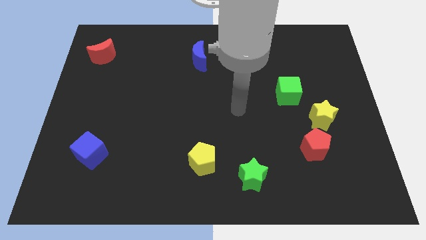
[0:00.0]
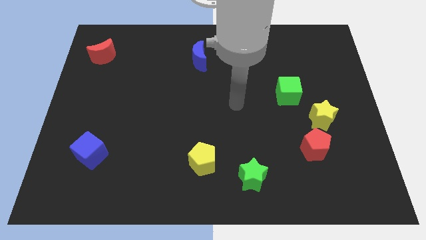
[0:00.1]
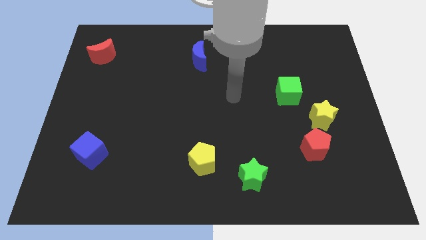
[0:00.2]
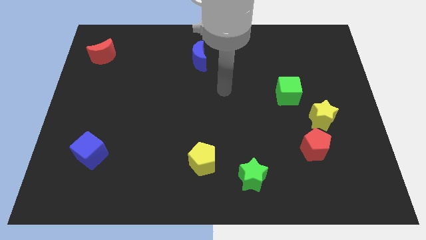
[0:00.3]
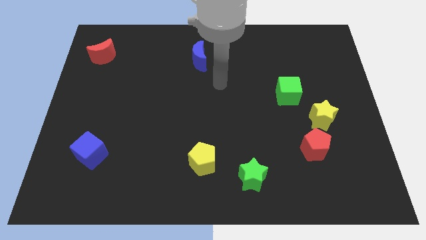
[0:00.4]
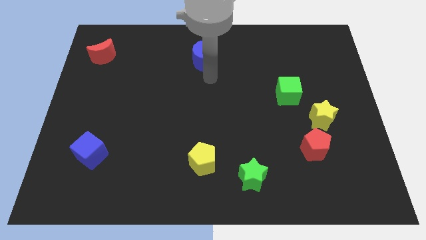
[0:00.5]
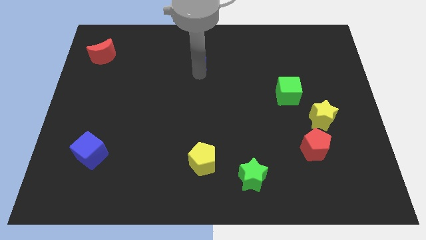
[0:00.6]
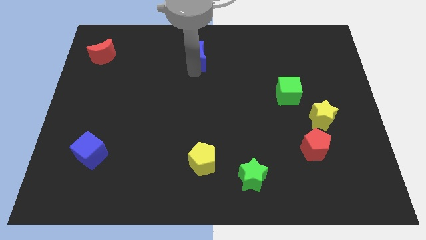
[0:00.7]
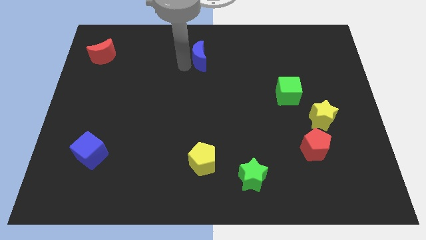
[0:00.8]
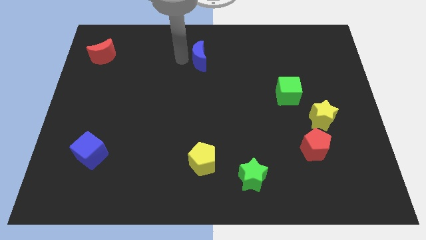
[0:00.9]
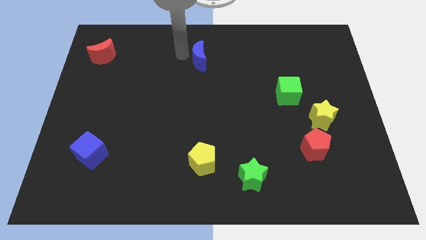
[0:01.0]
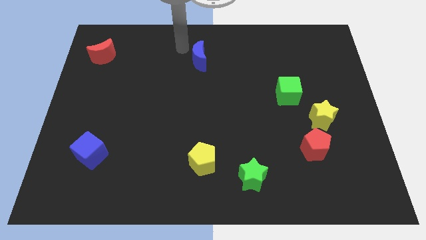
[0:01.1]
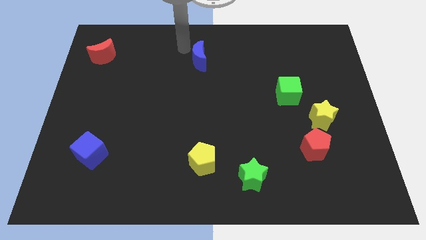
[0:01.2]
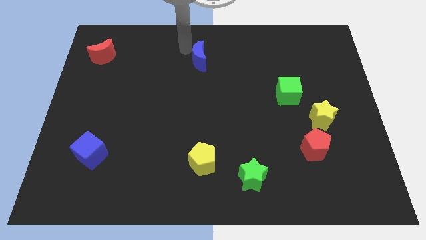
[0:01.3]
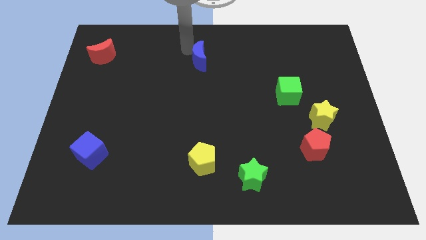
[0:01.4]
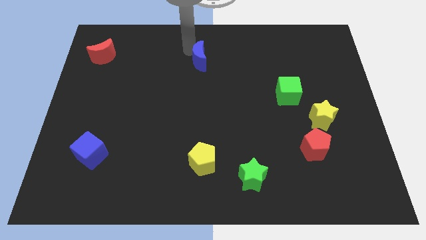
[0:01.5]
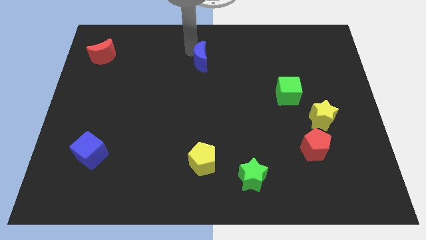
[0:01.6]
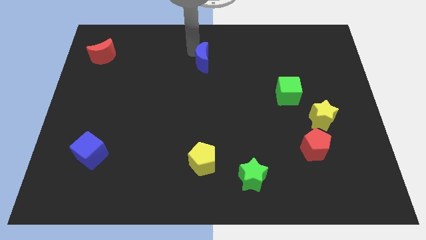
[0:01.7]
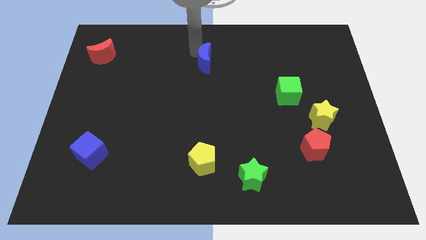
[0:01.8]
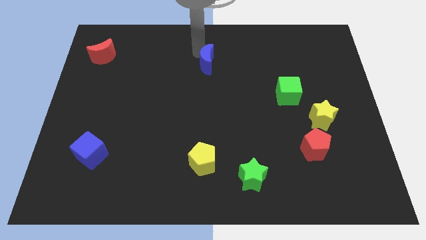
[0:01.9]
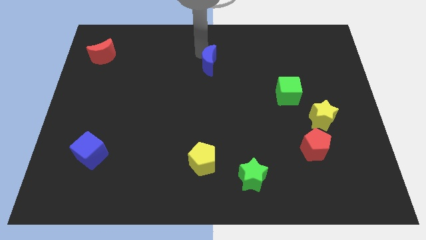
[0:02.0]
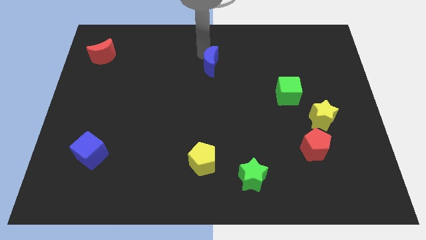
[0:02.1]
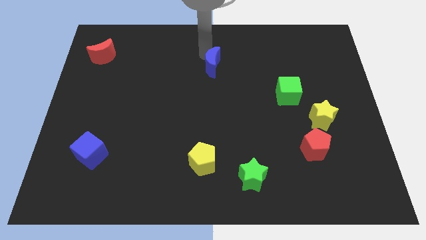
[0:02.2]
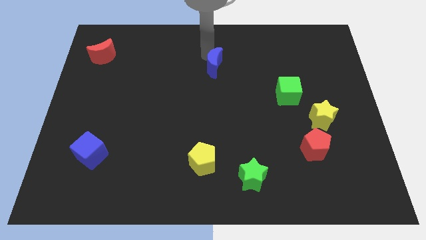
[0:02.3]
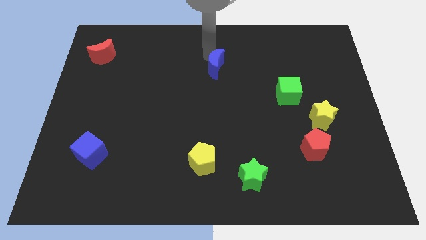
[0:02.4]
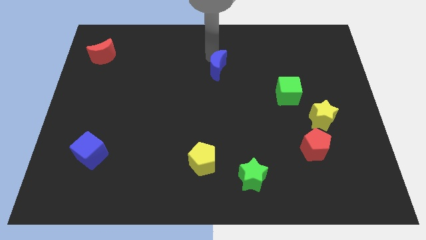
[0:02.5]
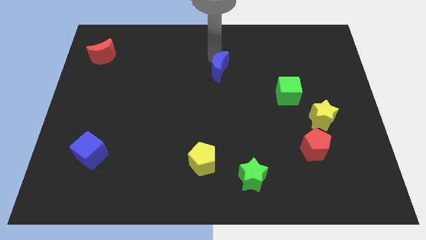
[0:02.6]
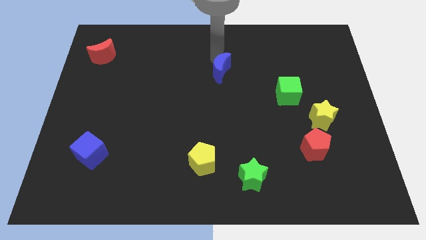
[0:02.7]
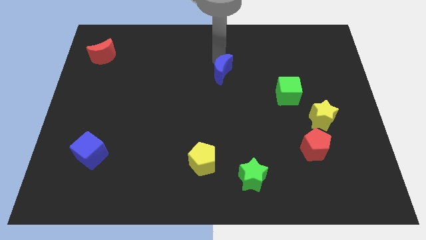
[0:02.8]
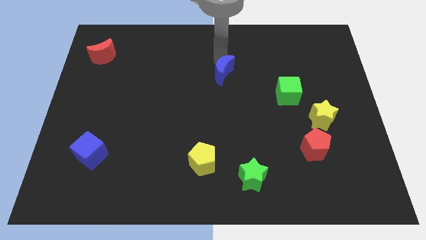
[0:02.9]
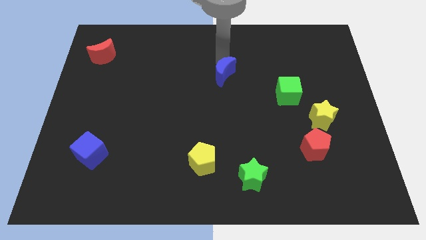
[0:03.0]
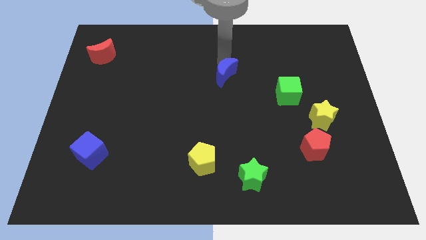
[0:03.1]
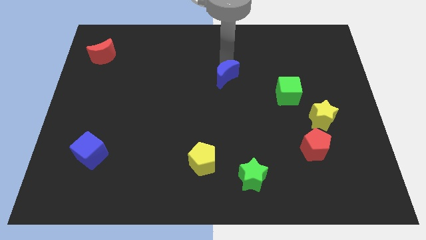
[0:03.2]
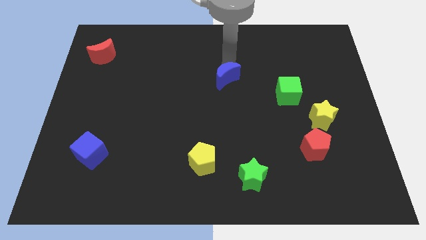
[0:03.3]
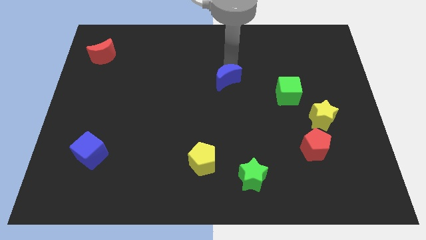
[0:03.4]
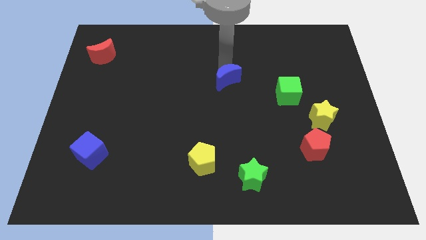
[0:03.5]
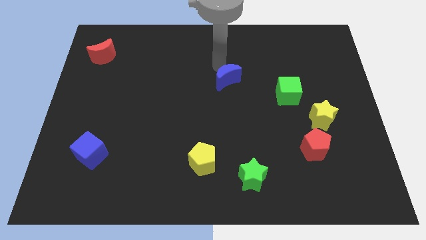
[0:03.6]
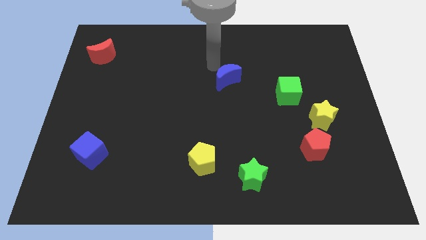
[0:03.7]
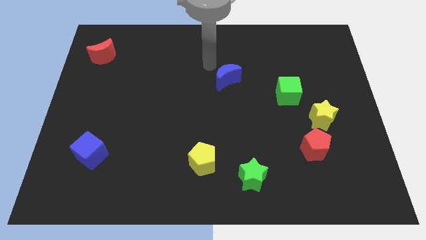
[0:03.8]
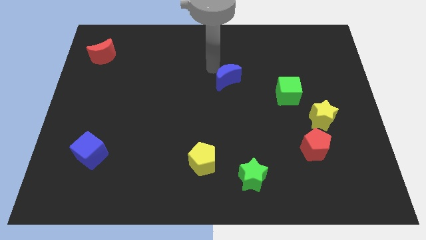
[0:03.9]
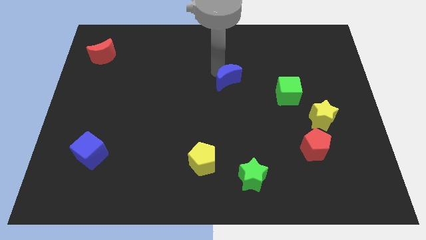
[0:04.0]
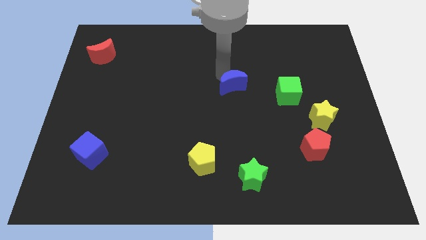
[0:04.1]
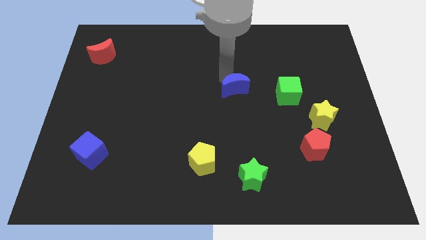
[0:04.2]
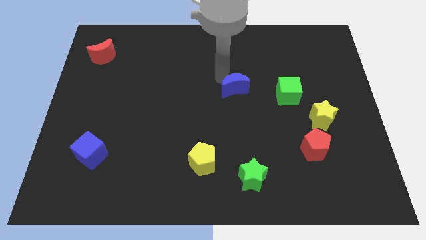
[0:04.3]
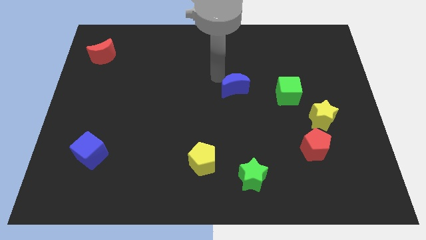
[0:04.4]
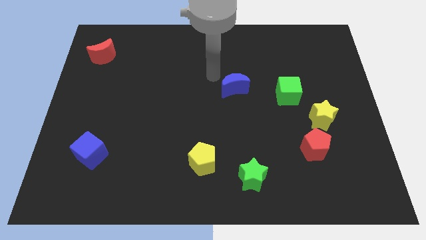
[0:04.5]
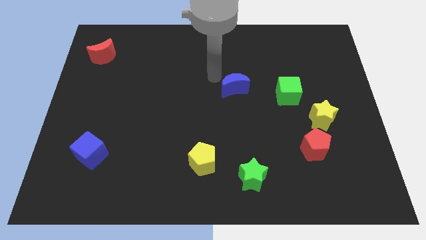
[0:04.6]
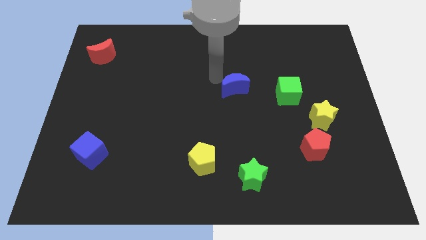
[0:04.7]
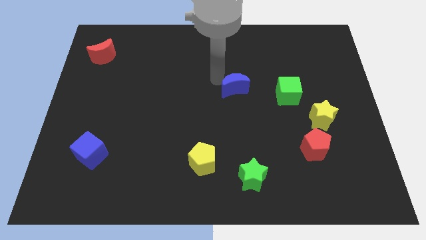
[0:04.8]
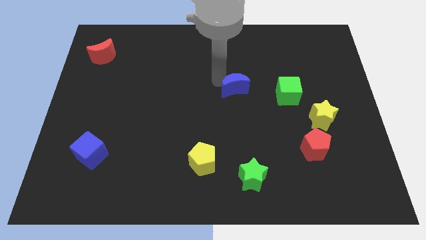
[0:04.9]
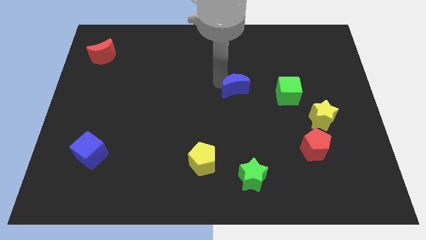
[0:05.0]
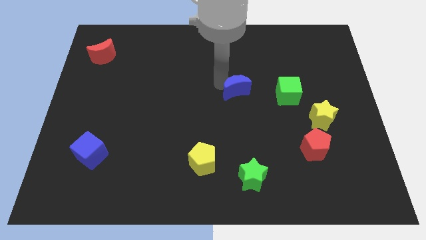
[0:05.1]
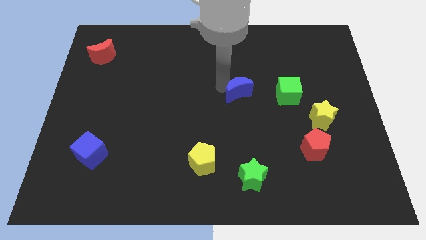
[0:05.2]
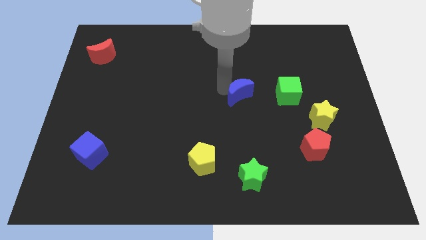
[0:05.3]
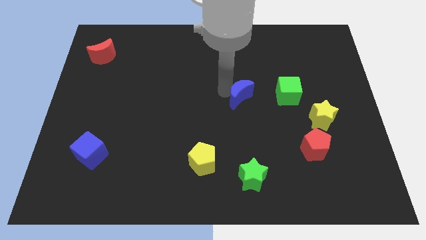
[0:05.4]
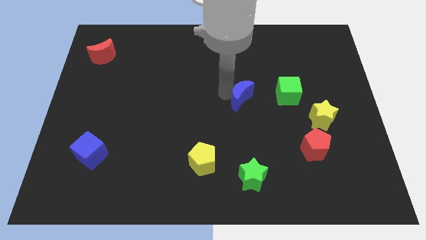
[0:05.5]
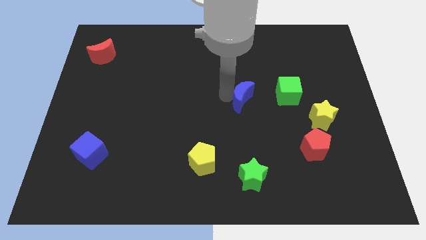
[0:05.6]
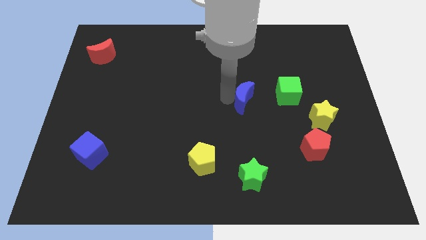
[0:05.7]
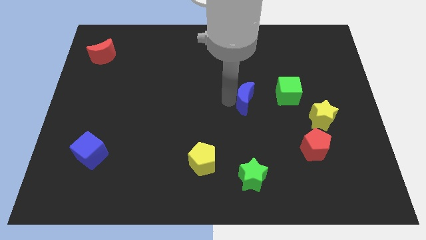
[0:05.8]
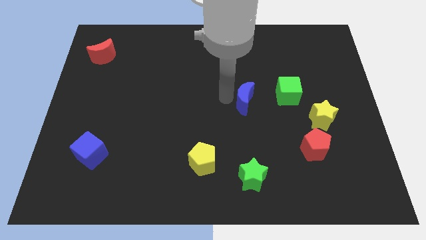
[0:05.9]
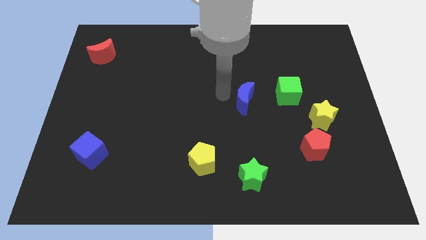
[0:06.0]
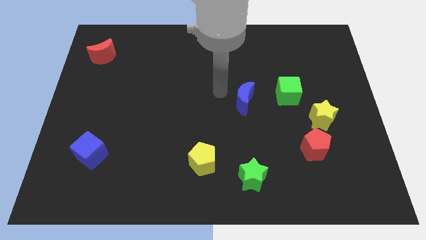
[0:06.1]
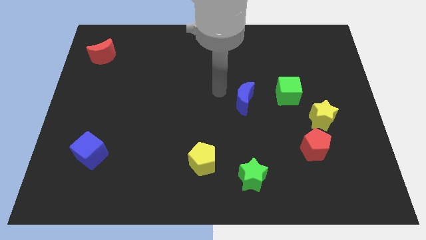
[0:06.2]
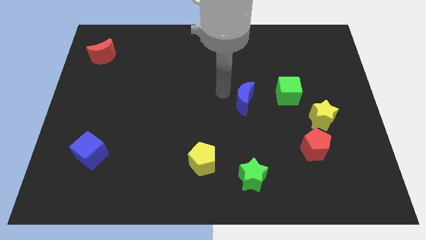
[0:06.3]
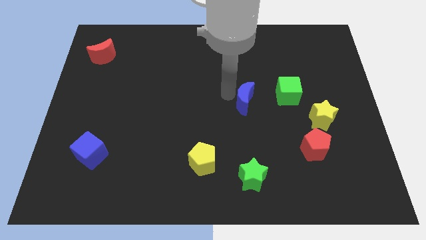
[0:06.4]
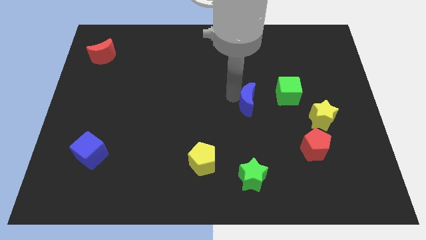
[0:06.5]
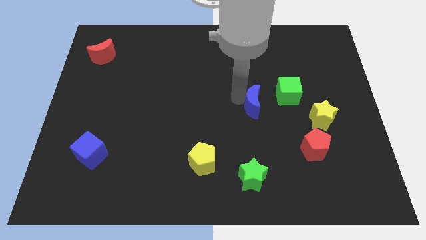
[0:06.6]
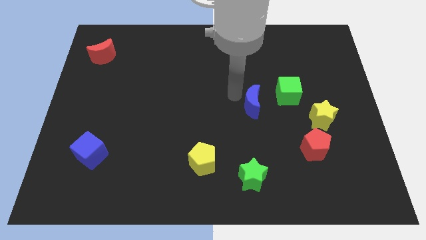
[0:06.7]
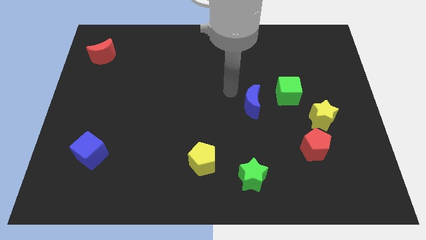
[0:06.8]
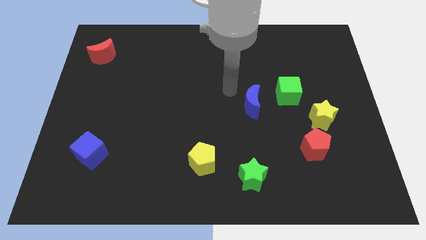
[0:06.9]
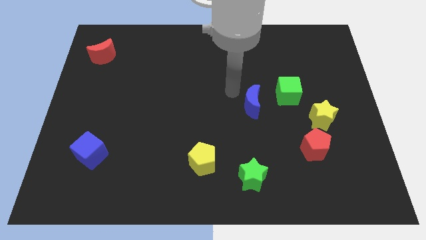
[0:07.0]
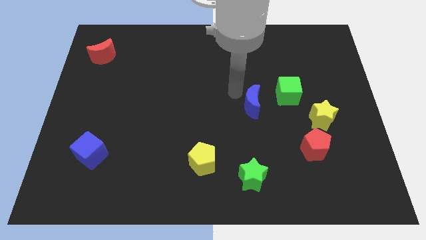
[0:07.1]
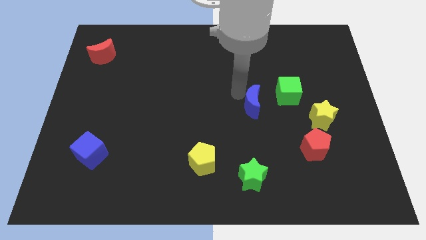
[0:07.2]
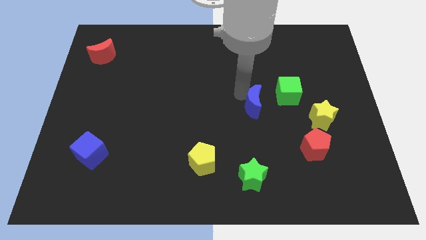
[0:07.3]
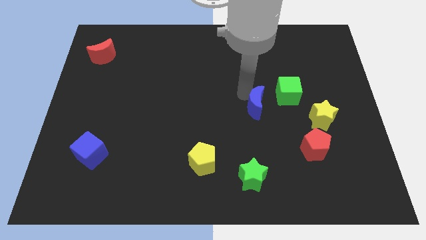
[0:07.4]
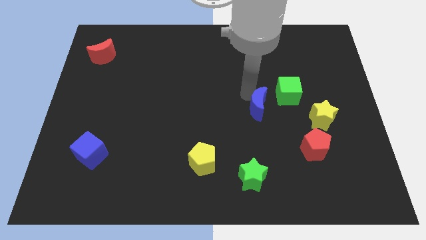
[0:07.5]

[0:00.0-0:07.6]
slide the blue moon just left of the yellow star

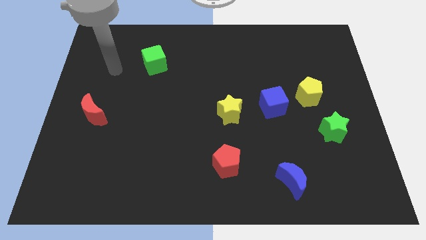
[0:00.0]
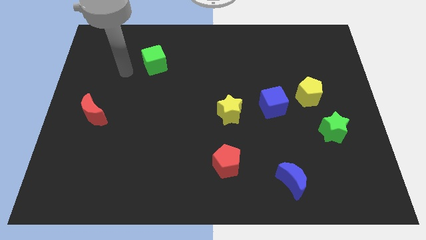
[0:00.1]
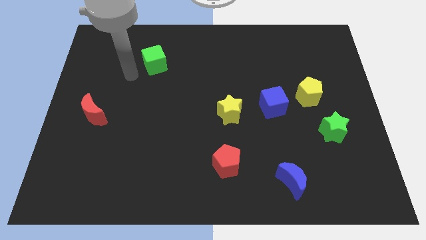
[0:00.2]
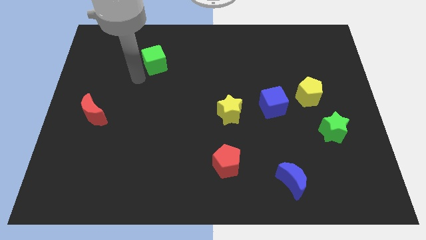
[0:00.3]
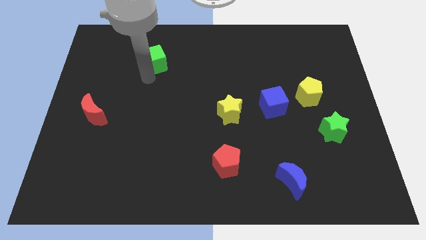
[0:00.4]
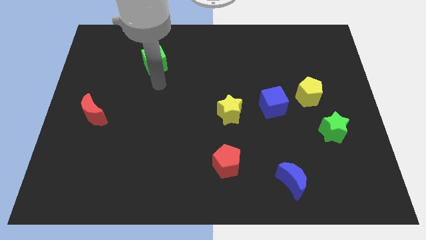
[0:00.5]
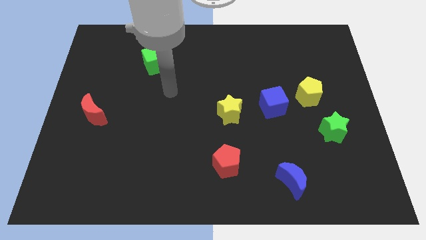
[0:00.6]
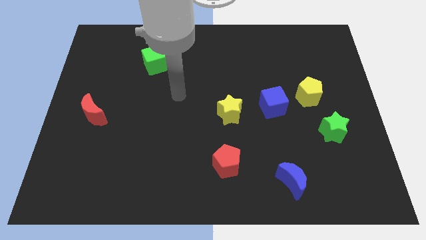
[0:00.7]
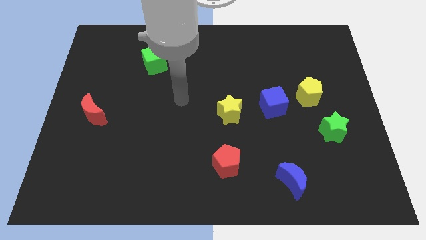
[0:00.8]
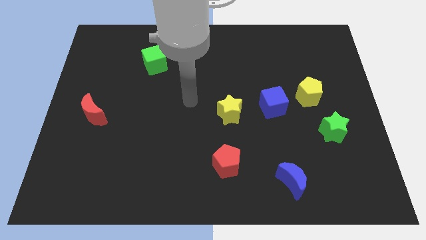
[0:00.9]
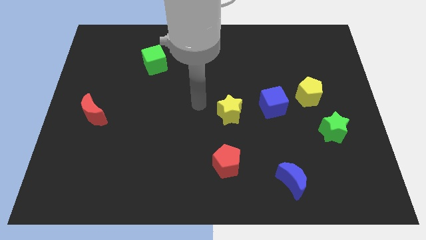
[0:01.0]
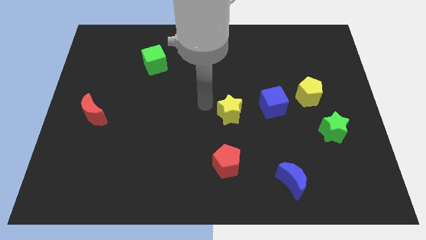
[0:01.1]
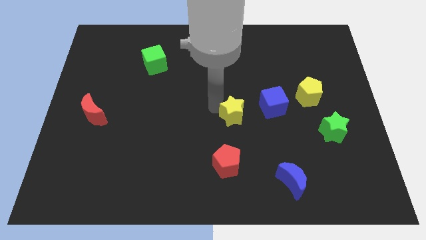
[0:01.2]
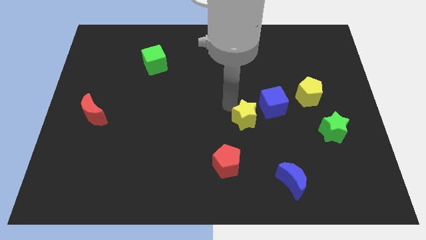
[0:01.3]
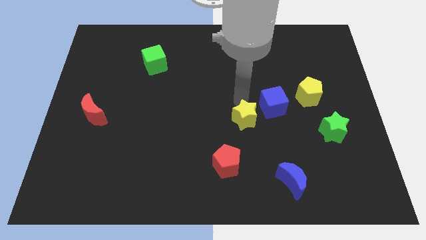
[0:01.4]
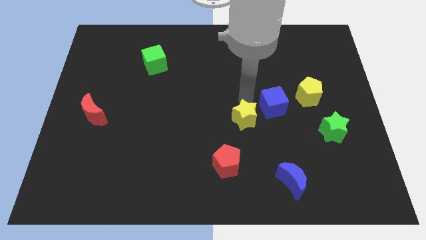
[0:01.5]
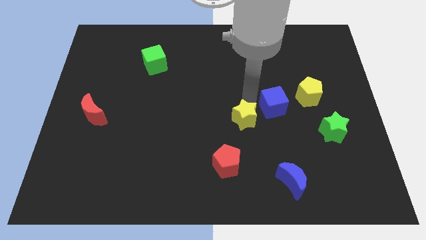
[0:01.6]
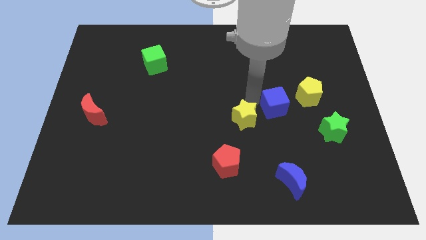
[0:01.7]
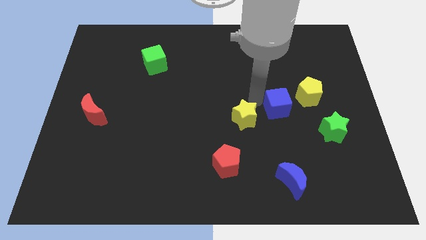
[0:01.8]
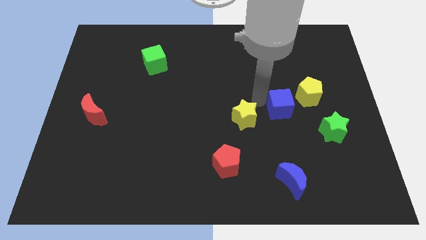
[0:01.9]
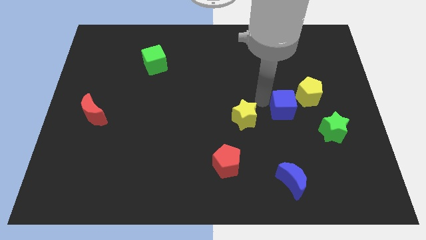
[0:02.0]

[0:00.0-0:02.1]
move the blue cube to the top left side of the green star
